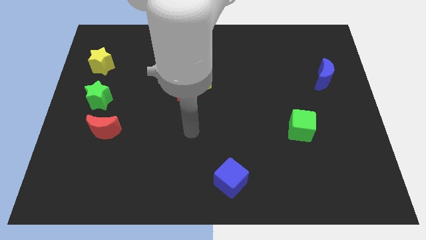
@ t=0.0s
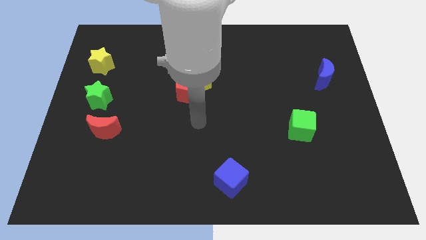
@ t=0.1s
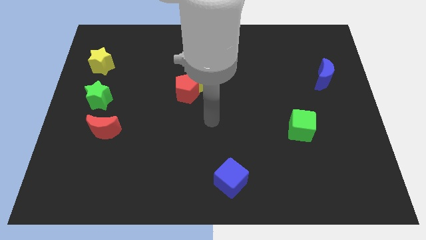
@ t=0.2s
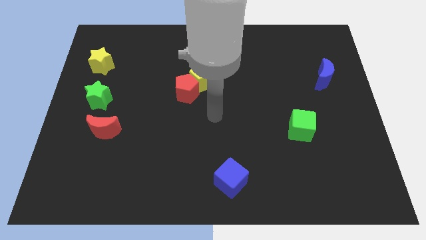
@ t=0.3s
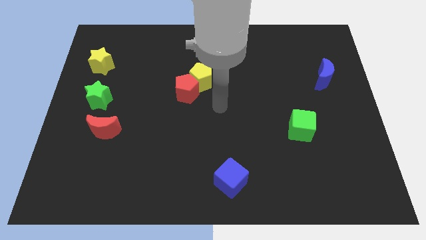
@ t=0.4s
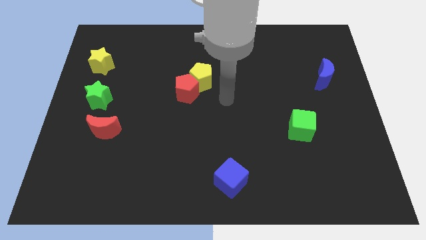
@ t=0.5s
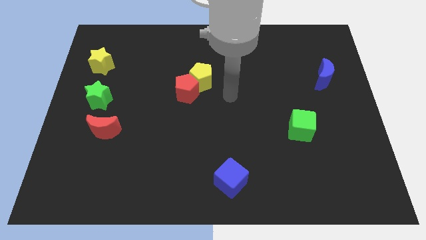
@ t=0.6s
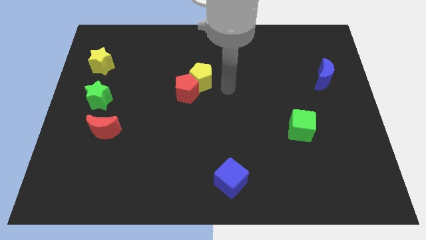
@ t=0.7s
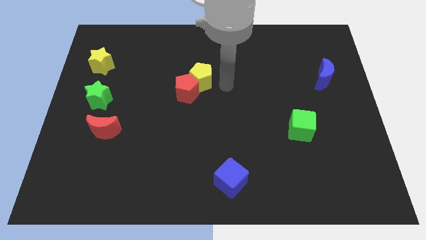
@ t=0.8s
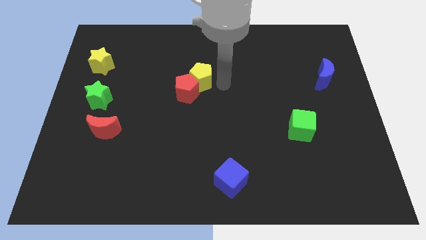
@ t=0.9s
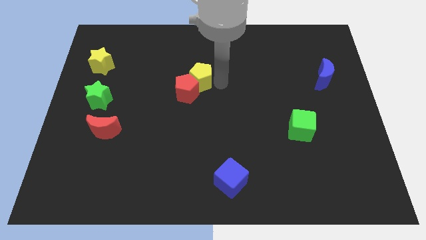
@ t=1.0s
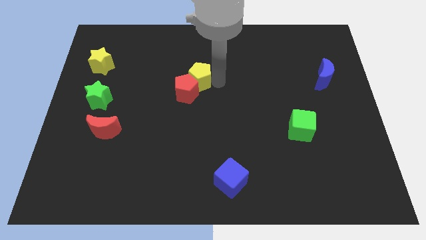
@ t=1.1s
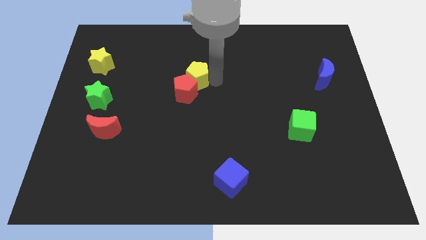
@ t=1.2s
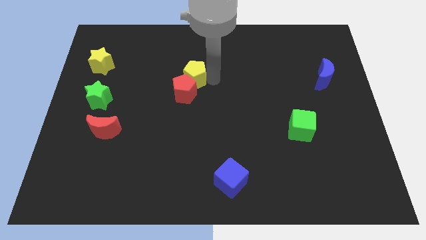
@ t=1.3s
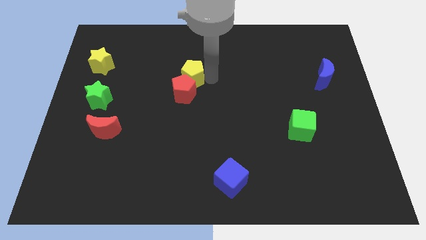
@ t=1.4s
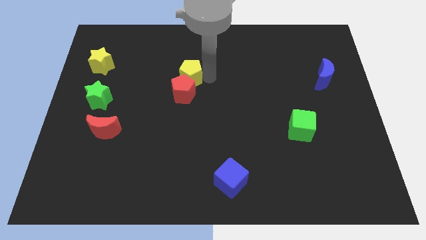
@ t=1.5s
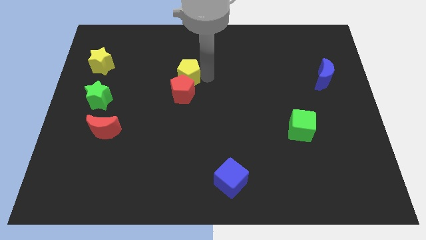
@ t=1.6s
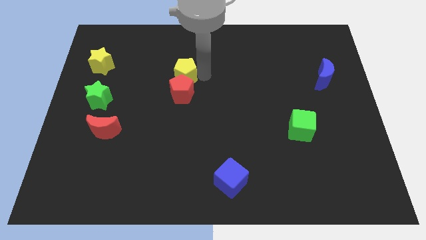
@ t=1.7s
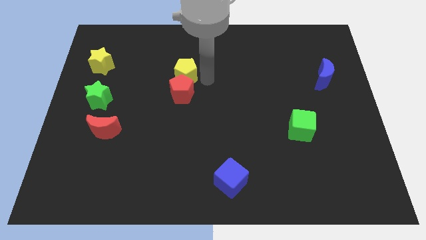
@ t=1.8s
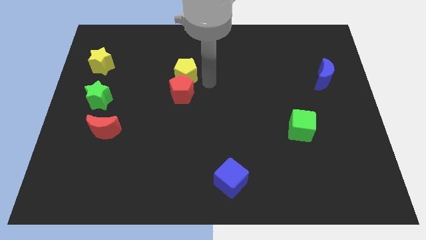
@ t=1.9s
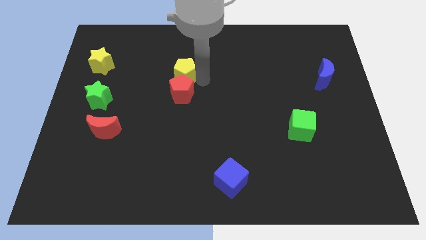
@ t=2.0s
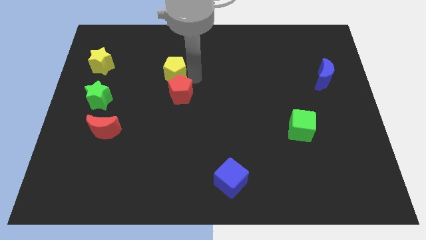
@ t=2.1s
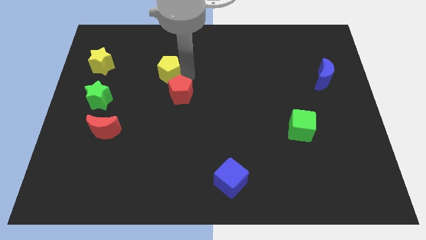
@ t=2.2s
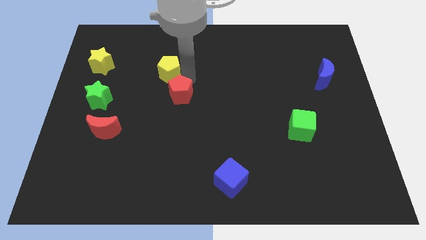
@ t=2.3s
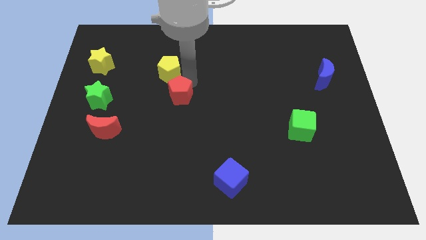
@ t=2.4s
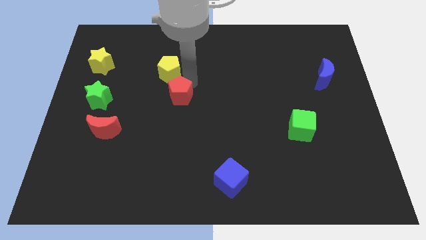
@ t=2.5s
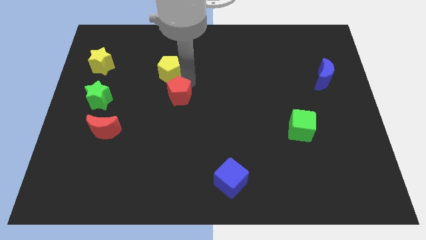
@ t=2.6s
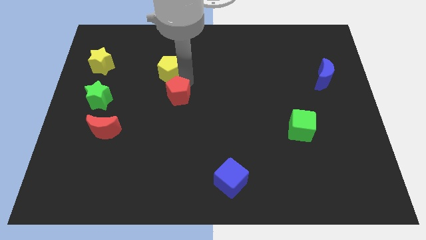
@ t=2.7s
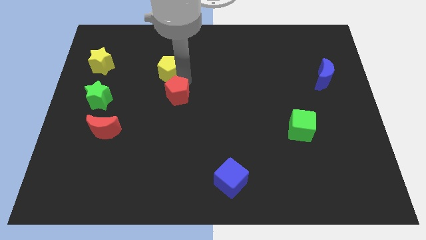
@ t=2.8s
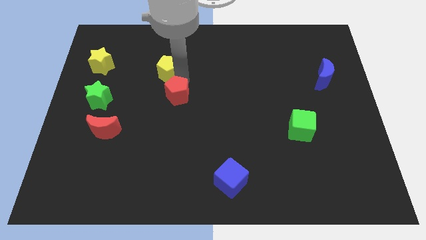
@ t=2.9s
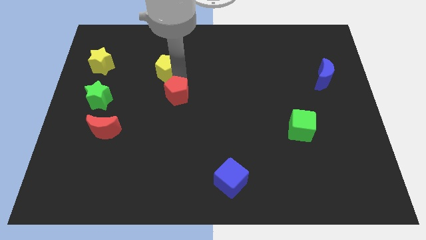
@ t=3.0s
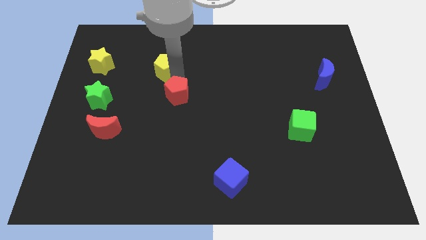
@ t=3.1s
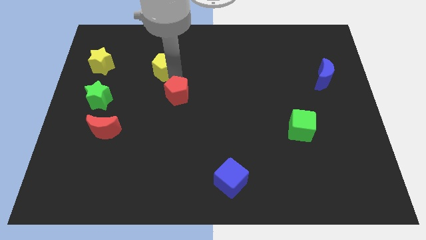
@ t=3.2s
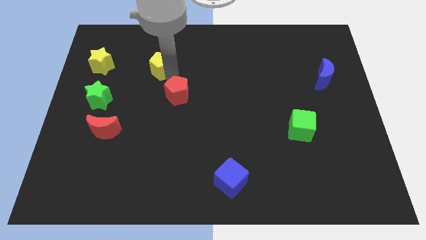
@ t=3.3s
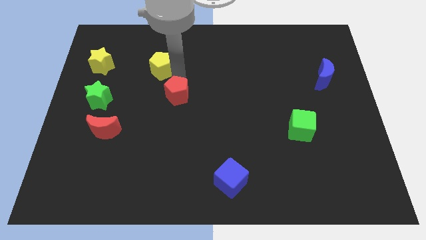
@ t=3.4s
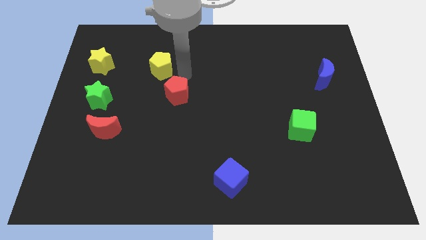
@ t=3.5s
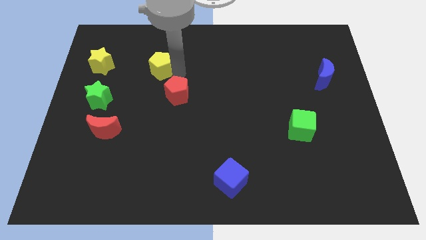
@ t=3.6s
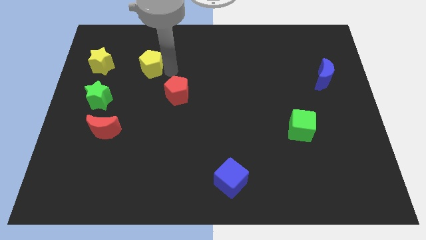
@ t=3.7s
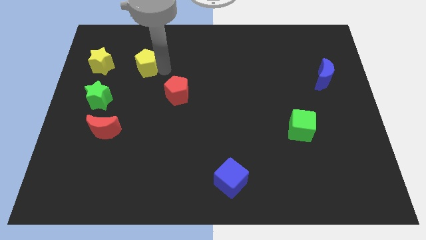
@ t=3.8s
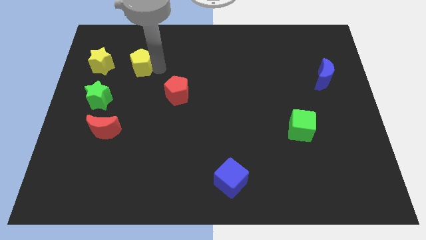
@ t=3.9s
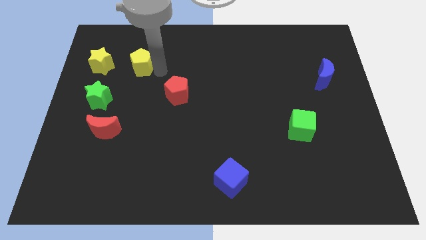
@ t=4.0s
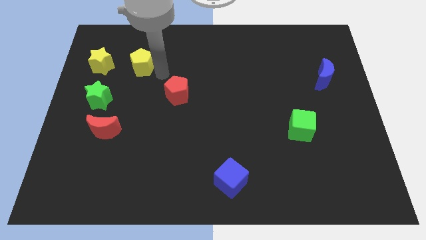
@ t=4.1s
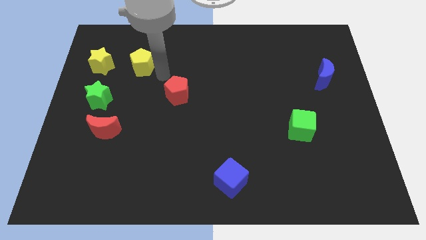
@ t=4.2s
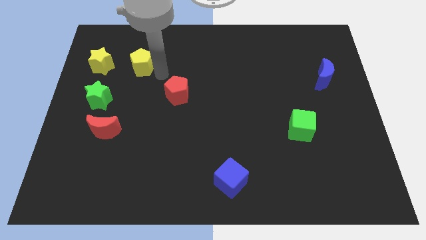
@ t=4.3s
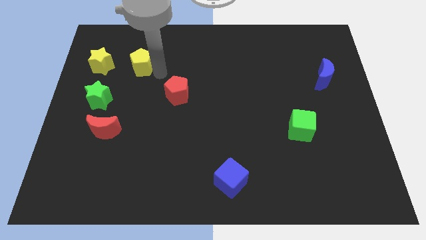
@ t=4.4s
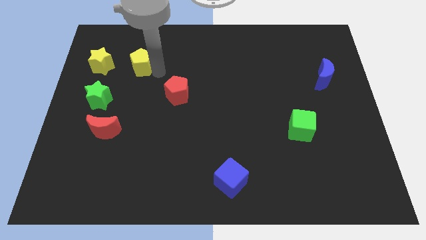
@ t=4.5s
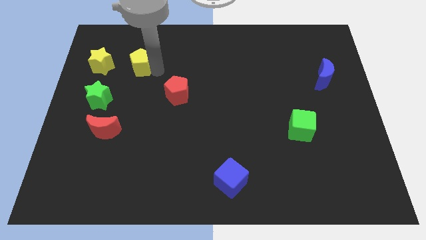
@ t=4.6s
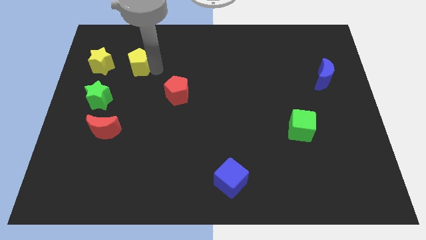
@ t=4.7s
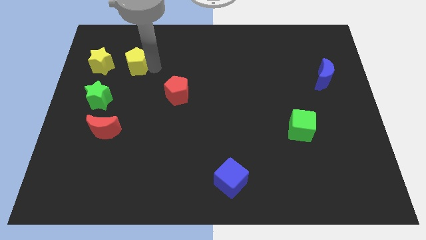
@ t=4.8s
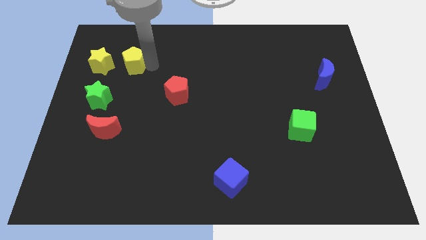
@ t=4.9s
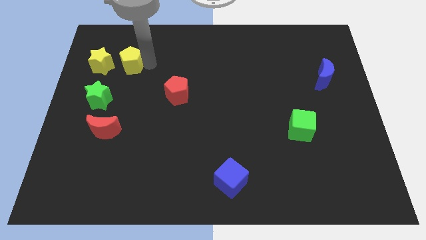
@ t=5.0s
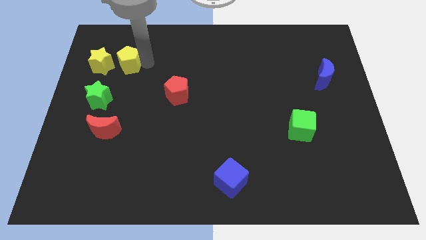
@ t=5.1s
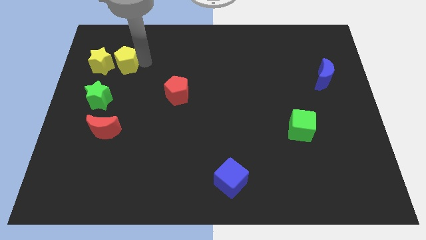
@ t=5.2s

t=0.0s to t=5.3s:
slide the yellow pentagon to the top of the green star

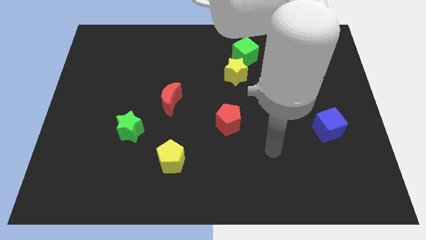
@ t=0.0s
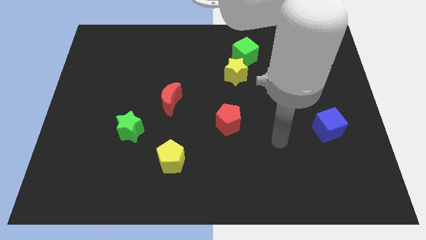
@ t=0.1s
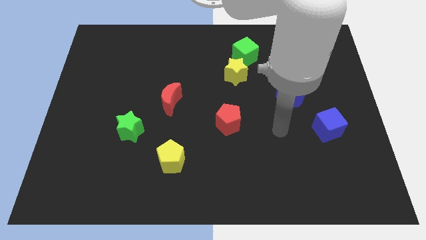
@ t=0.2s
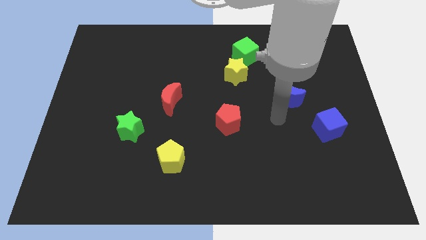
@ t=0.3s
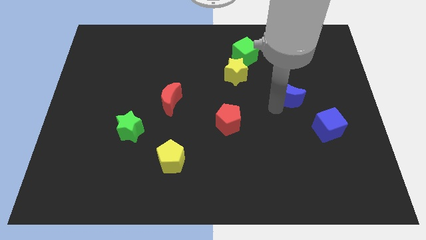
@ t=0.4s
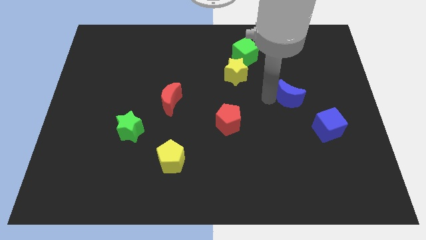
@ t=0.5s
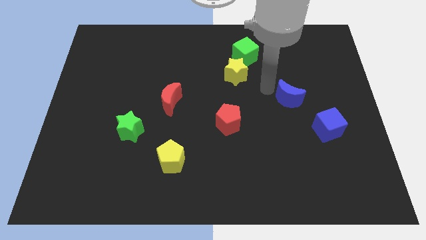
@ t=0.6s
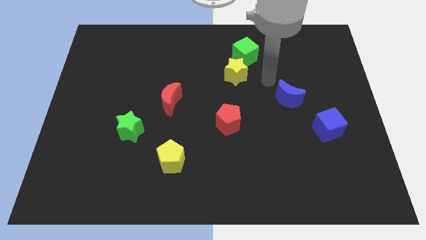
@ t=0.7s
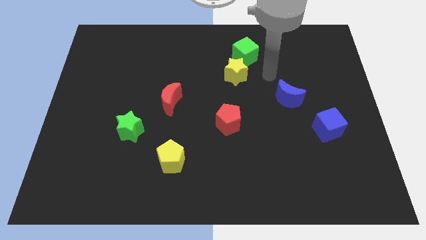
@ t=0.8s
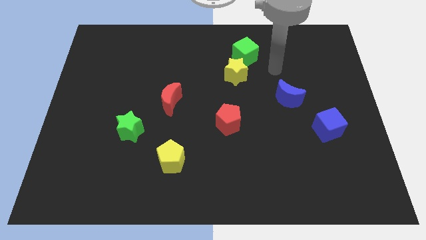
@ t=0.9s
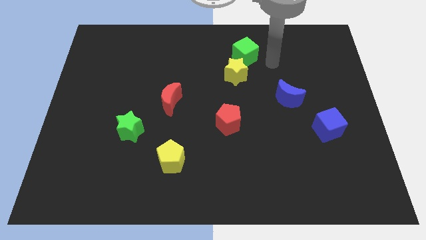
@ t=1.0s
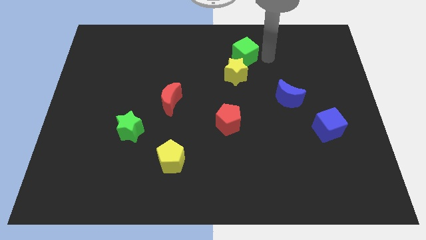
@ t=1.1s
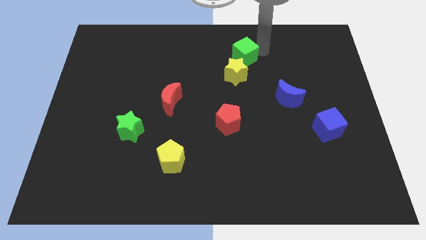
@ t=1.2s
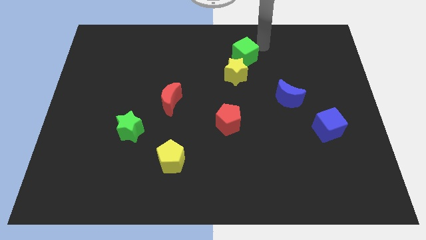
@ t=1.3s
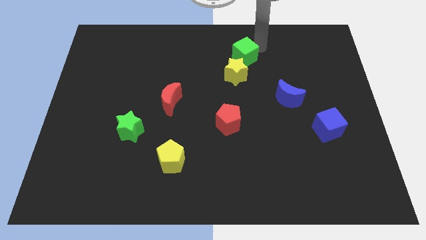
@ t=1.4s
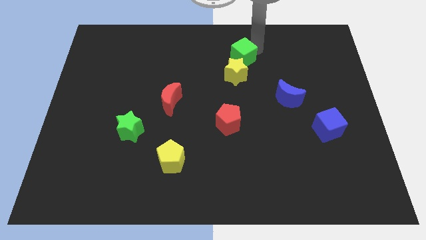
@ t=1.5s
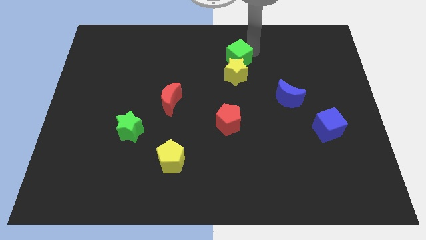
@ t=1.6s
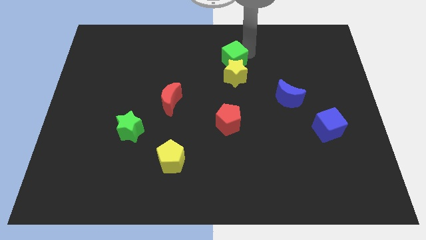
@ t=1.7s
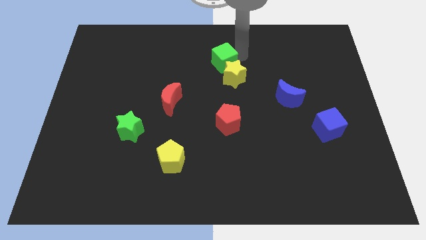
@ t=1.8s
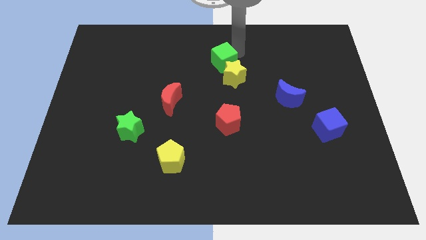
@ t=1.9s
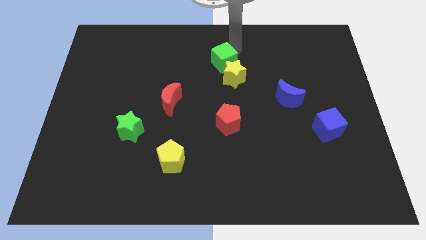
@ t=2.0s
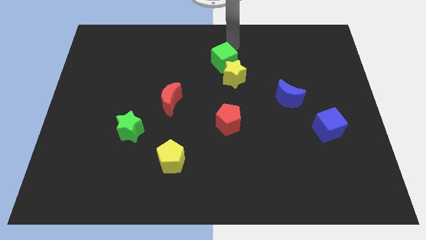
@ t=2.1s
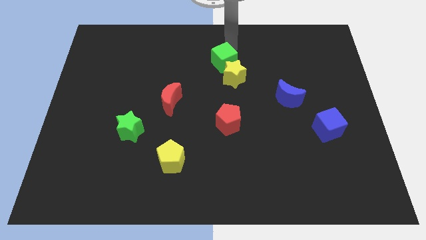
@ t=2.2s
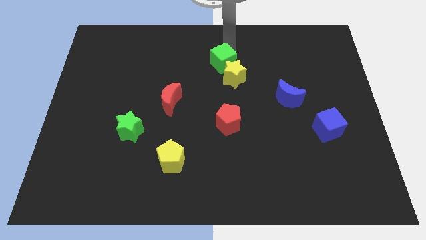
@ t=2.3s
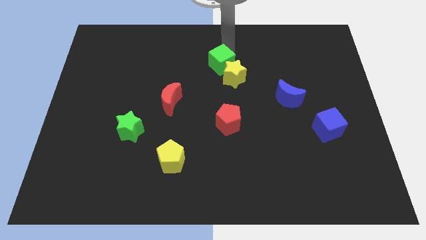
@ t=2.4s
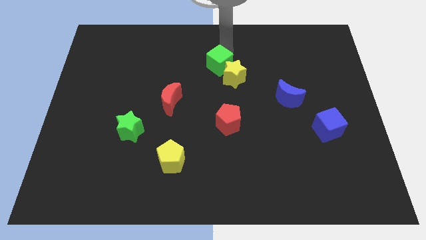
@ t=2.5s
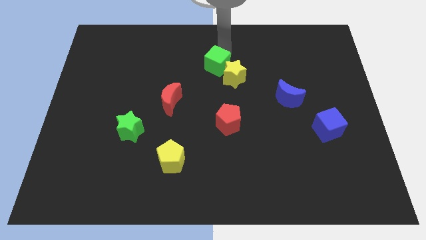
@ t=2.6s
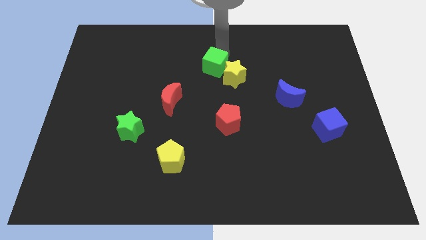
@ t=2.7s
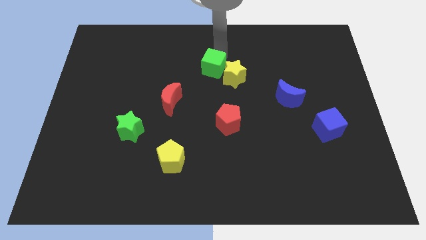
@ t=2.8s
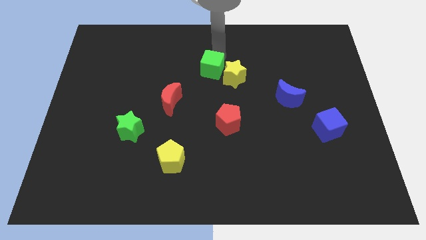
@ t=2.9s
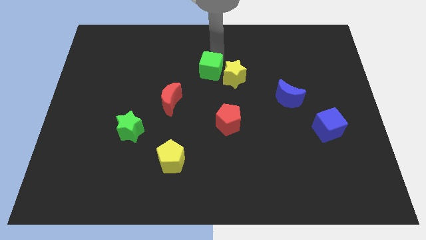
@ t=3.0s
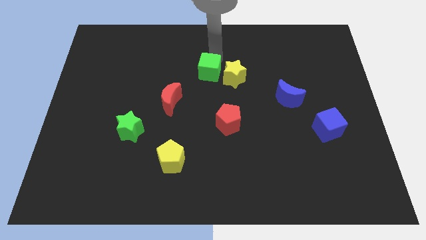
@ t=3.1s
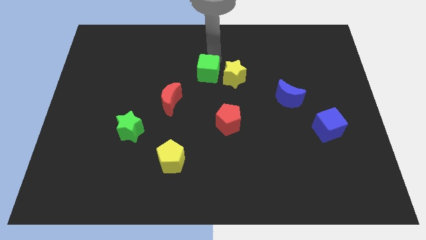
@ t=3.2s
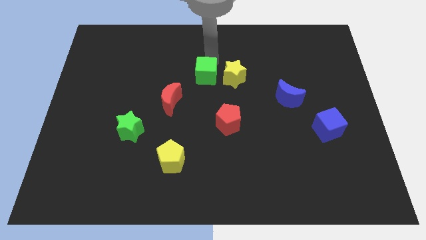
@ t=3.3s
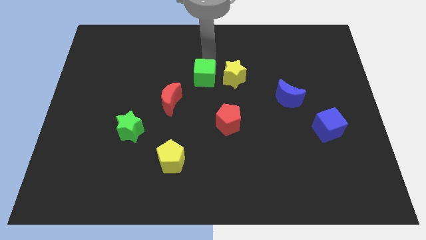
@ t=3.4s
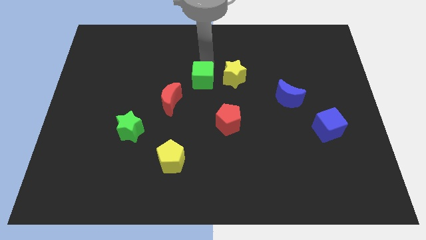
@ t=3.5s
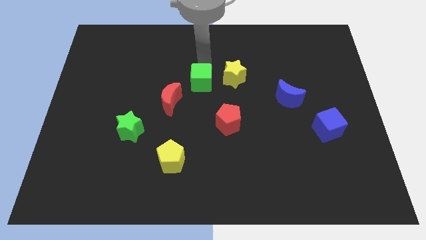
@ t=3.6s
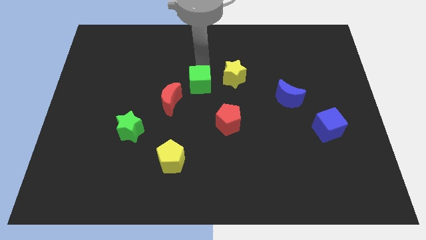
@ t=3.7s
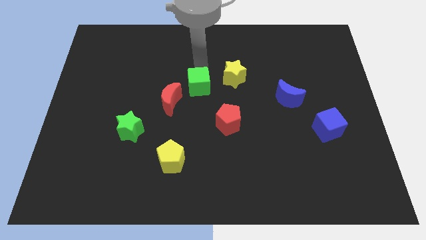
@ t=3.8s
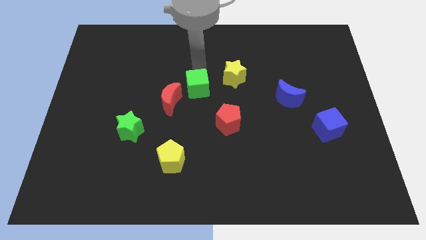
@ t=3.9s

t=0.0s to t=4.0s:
put the green cube to the right of the red moon
